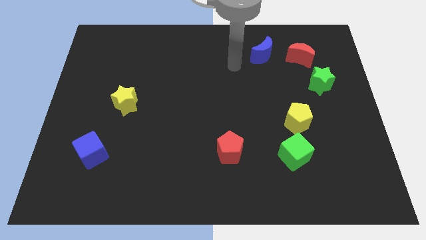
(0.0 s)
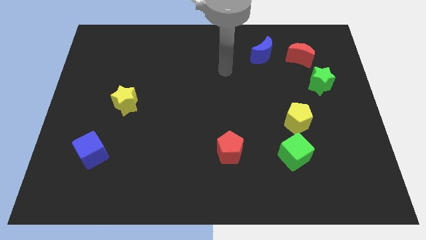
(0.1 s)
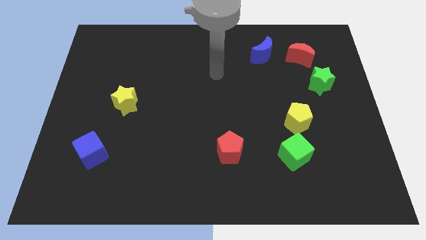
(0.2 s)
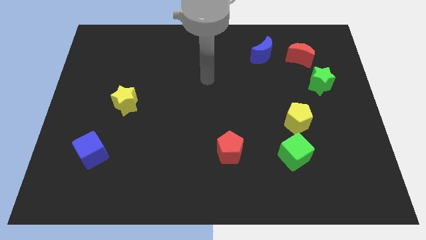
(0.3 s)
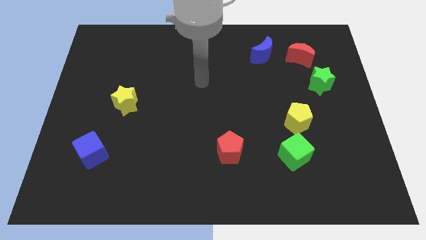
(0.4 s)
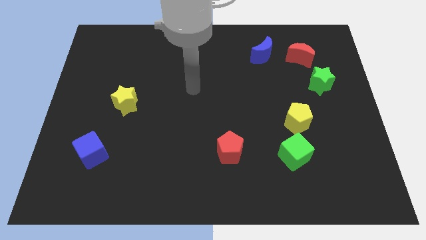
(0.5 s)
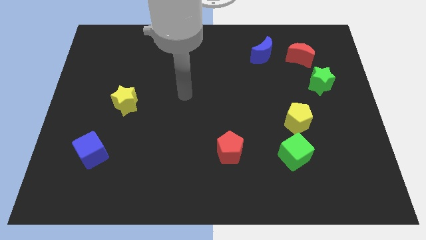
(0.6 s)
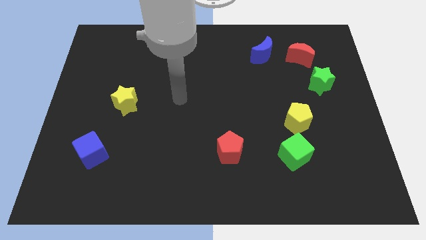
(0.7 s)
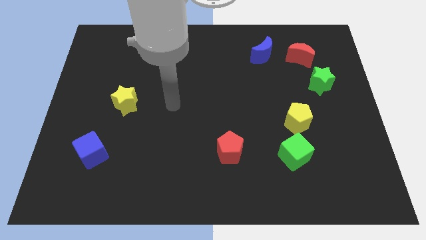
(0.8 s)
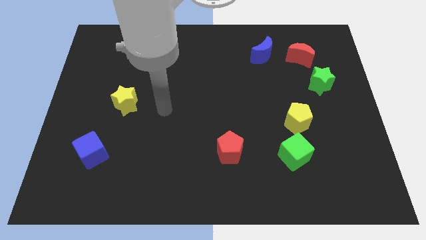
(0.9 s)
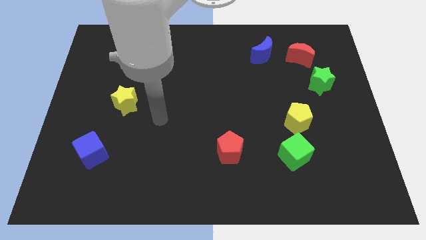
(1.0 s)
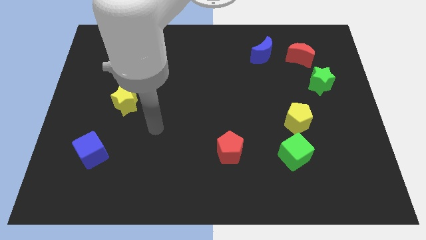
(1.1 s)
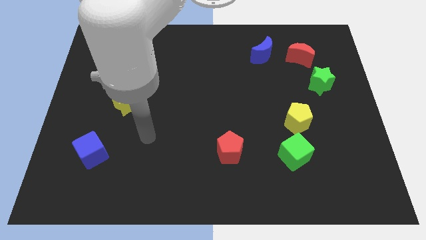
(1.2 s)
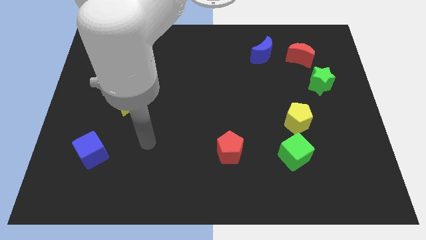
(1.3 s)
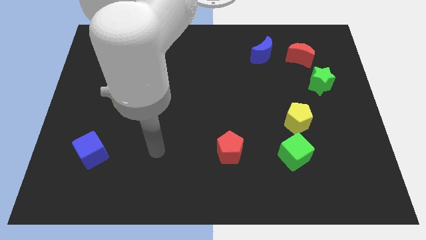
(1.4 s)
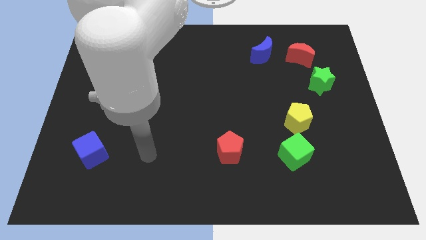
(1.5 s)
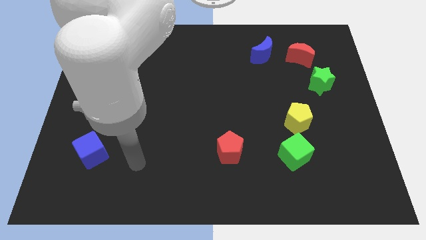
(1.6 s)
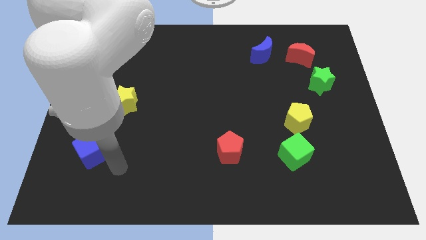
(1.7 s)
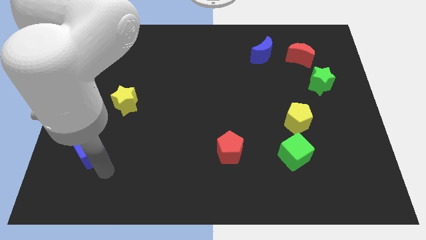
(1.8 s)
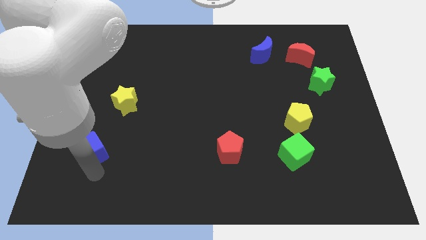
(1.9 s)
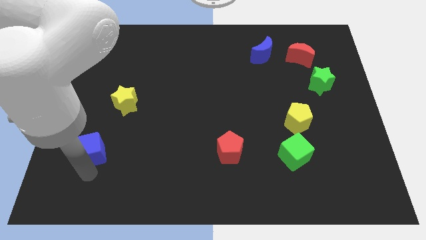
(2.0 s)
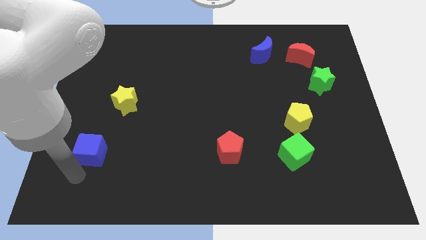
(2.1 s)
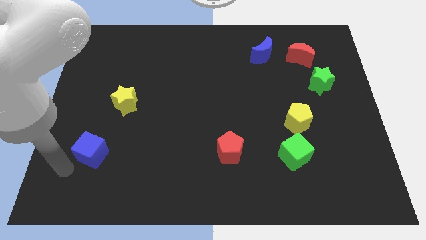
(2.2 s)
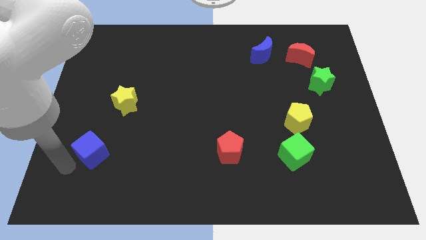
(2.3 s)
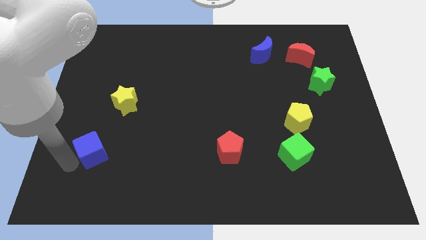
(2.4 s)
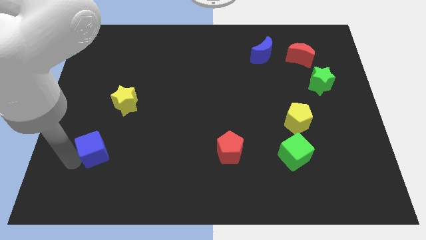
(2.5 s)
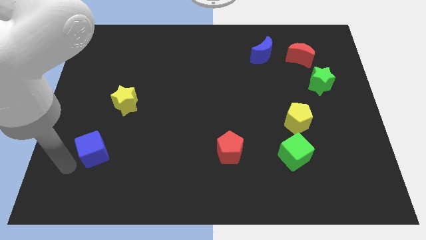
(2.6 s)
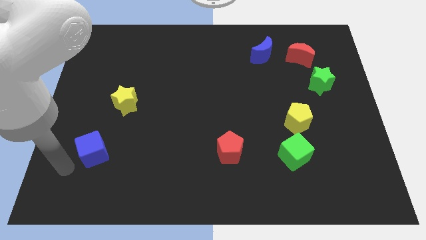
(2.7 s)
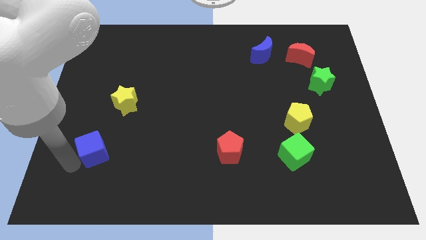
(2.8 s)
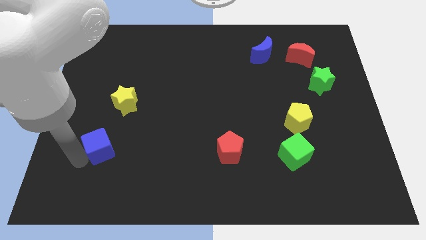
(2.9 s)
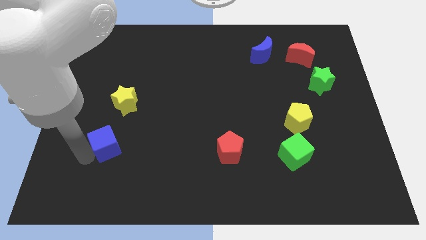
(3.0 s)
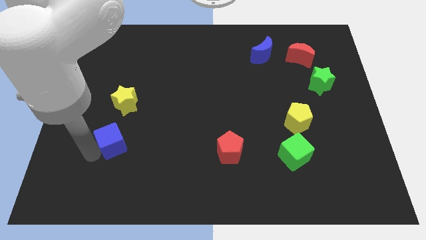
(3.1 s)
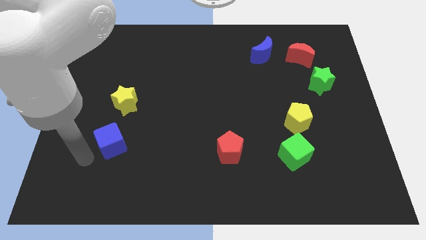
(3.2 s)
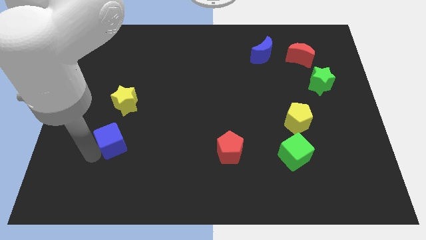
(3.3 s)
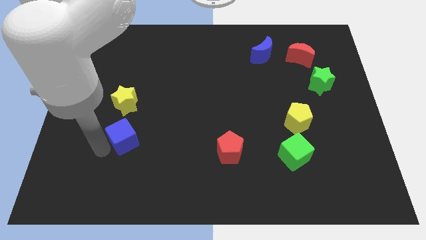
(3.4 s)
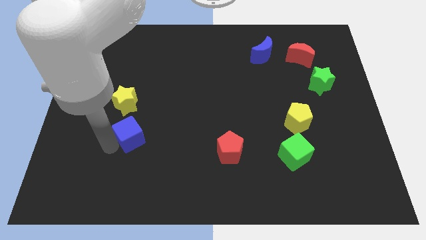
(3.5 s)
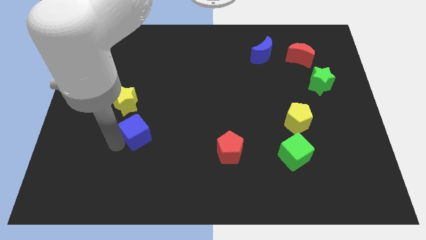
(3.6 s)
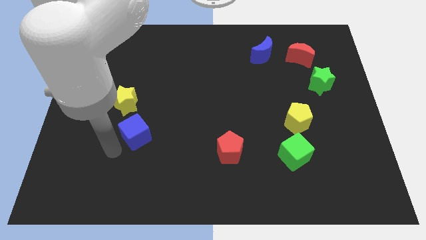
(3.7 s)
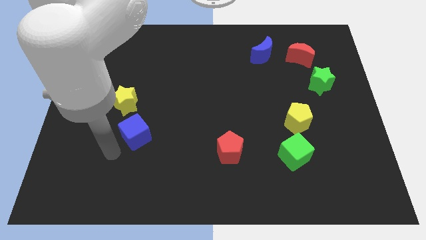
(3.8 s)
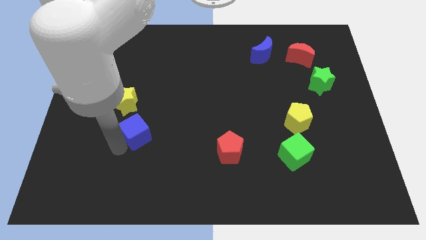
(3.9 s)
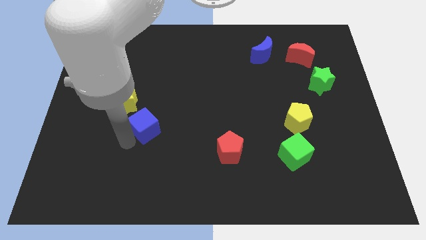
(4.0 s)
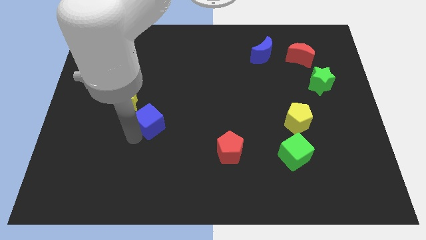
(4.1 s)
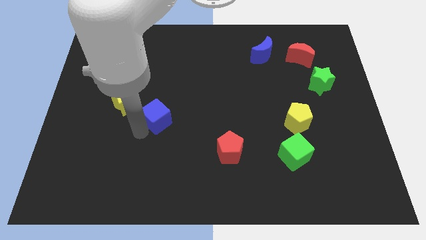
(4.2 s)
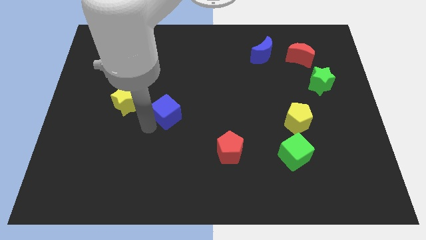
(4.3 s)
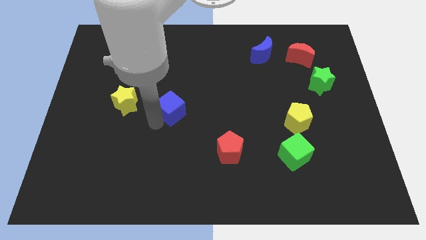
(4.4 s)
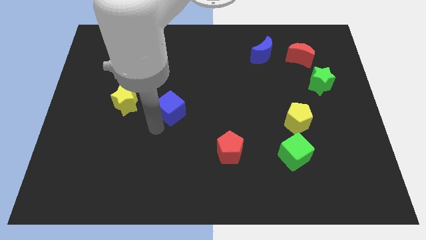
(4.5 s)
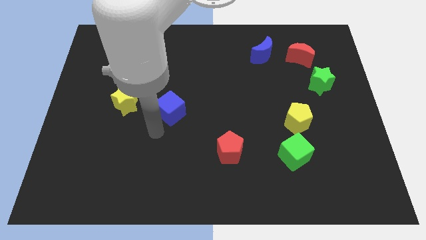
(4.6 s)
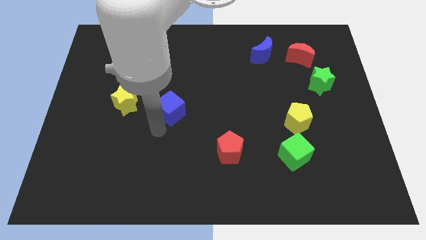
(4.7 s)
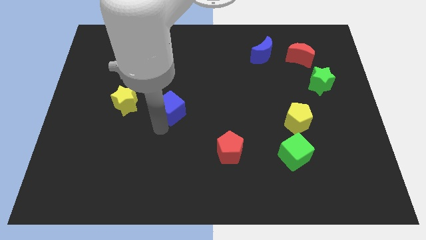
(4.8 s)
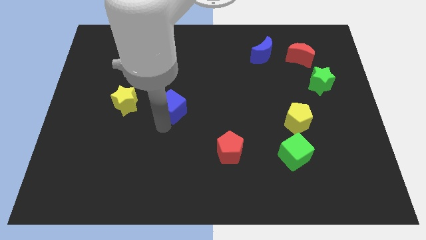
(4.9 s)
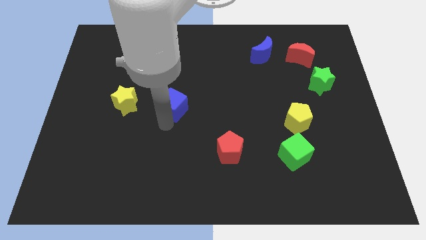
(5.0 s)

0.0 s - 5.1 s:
push the blue cube upwards and to the right

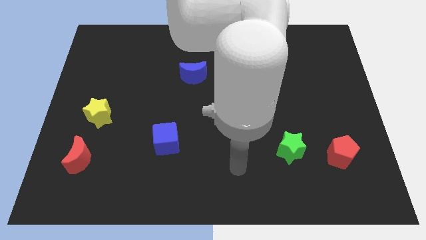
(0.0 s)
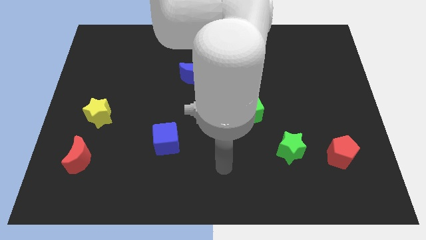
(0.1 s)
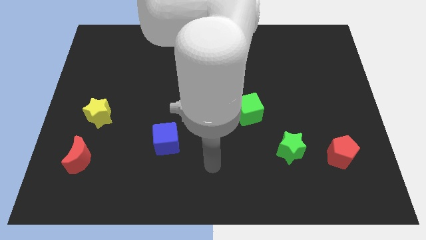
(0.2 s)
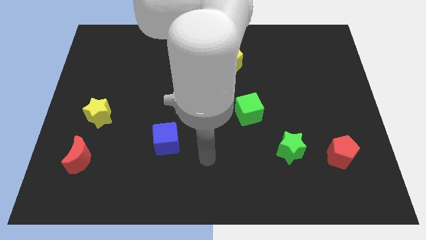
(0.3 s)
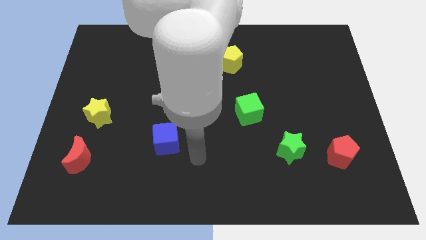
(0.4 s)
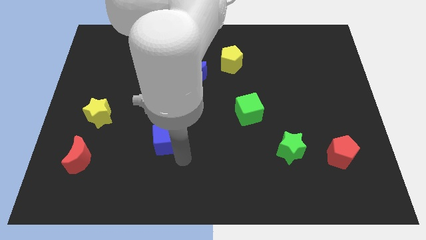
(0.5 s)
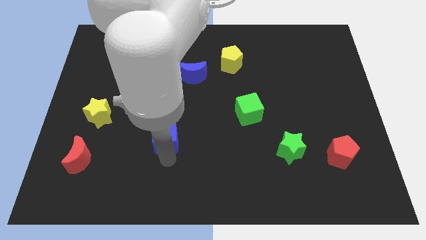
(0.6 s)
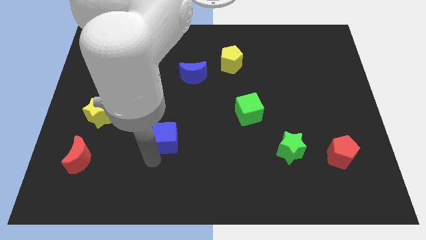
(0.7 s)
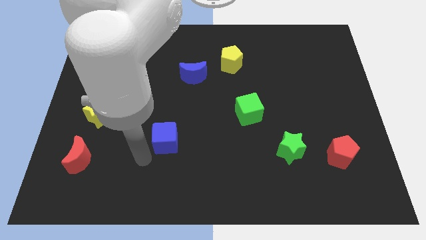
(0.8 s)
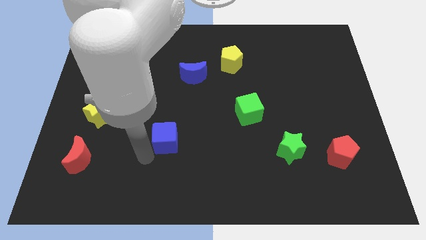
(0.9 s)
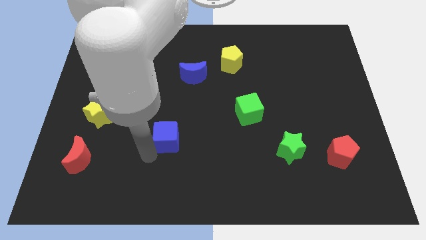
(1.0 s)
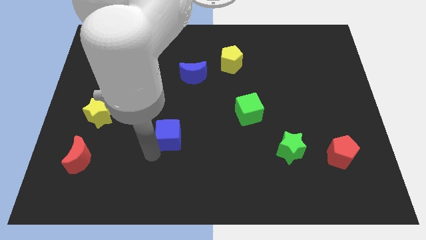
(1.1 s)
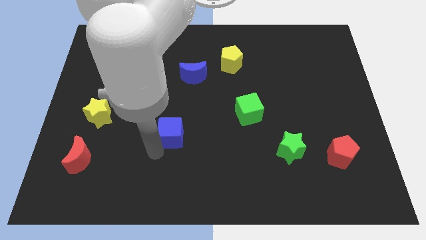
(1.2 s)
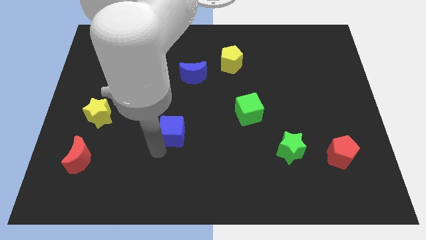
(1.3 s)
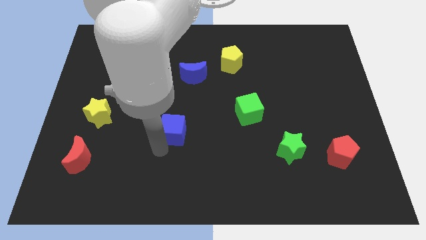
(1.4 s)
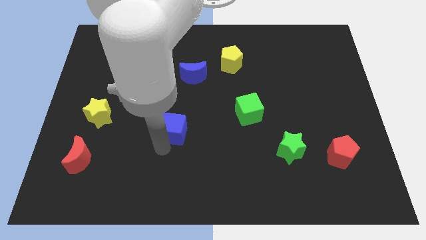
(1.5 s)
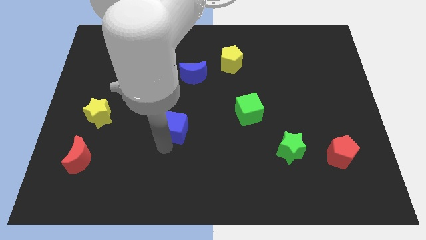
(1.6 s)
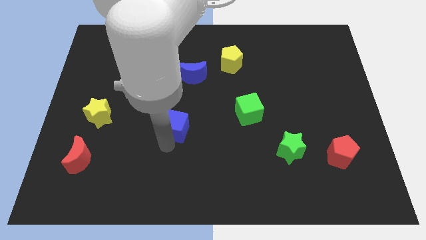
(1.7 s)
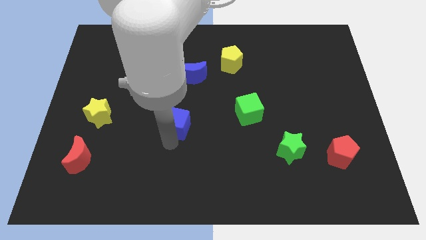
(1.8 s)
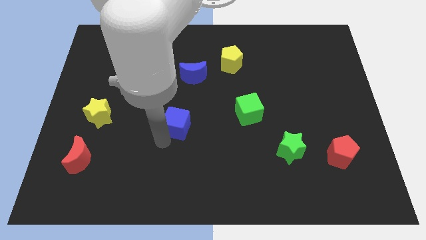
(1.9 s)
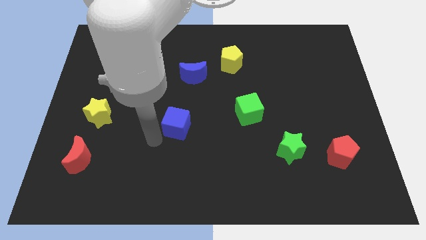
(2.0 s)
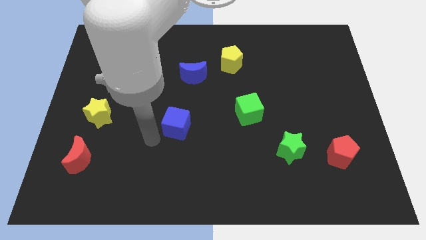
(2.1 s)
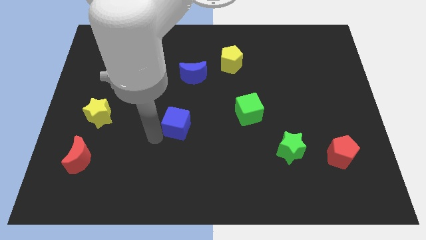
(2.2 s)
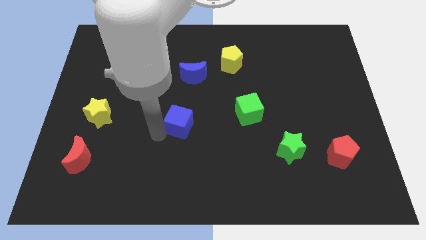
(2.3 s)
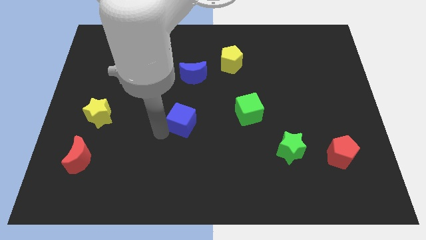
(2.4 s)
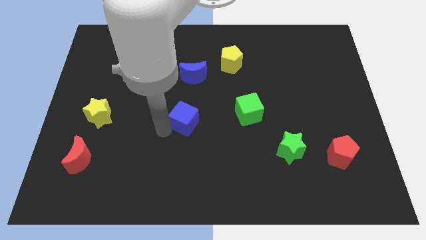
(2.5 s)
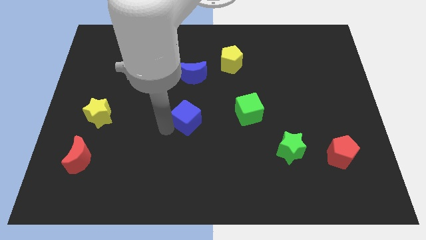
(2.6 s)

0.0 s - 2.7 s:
slightly push the blue cube diagonally upwards and to the right
